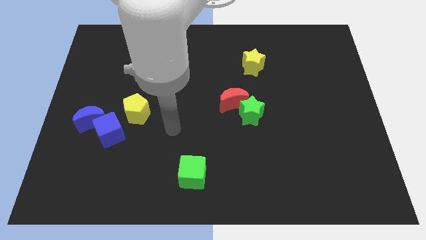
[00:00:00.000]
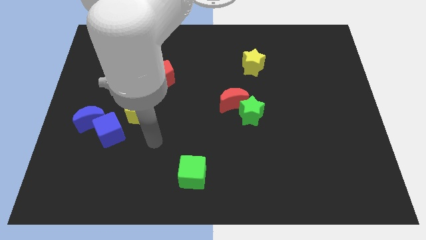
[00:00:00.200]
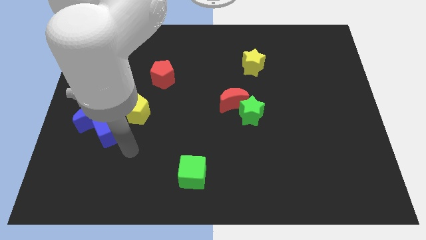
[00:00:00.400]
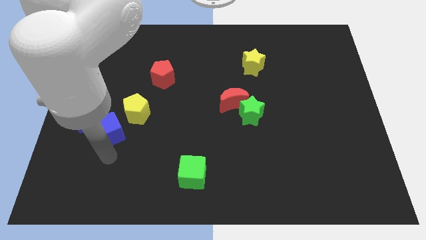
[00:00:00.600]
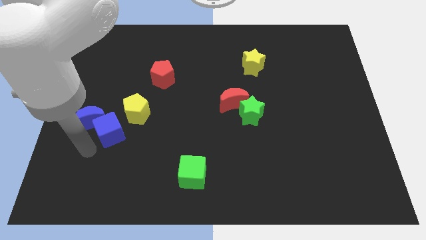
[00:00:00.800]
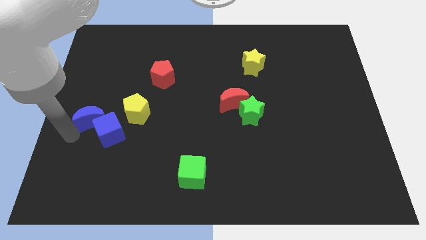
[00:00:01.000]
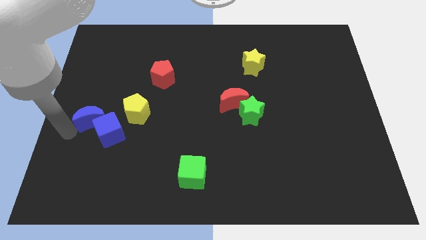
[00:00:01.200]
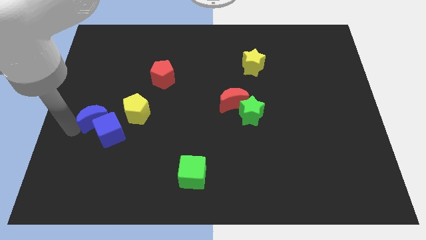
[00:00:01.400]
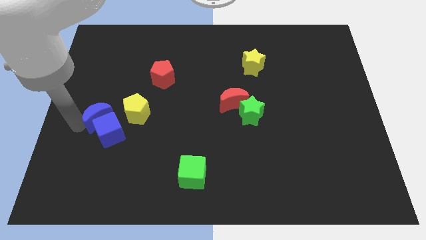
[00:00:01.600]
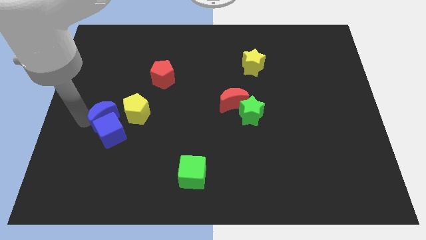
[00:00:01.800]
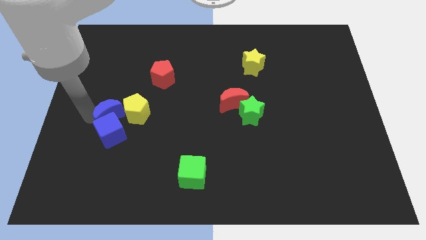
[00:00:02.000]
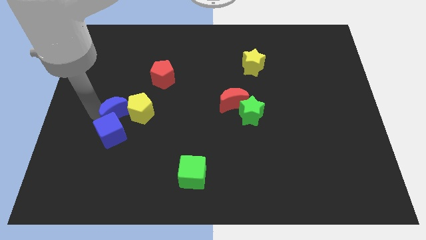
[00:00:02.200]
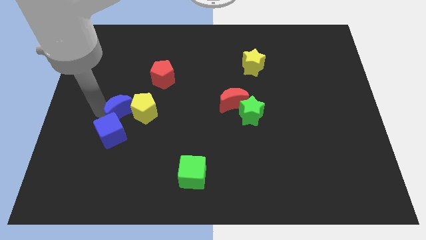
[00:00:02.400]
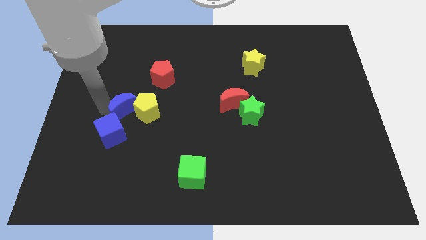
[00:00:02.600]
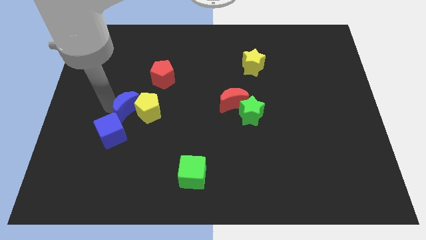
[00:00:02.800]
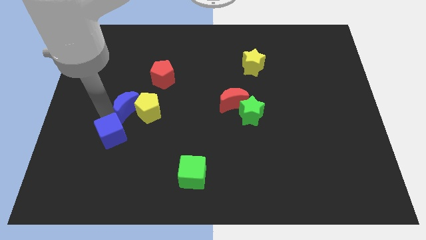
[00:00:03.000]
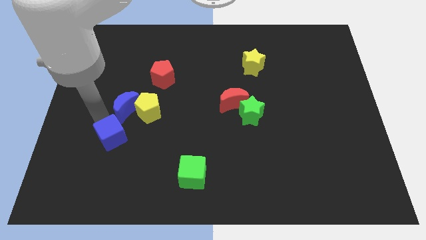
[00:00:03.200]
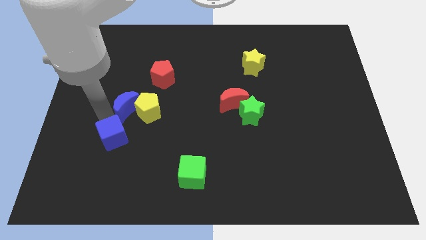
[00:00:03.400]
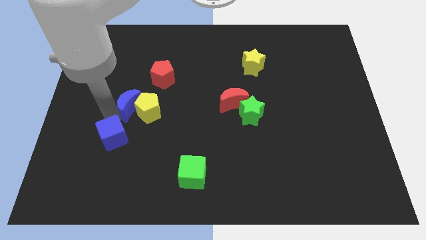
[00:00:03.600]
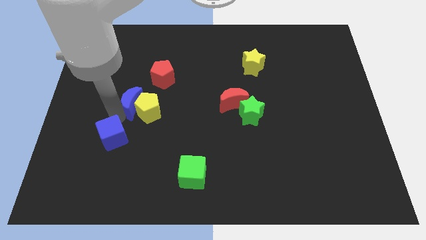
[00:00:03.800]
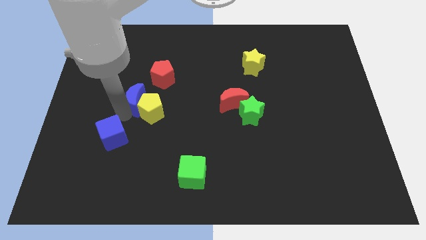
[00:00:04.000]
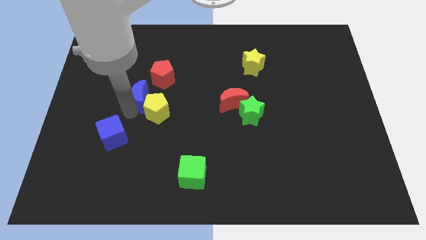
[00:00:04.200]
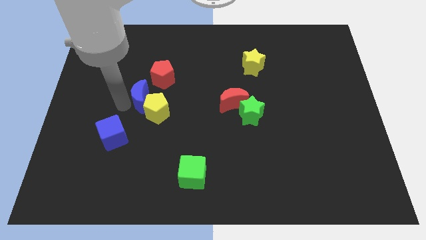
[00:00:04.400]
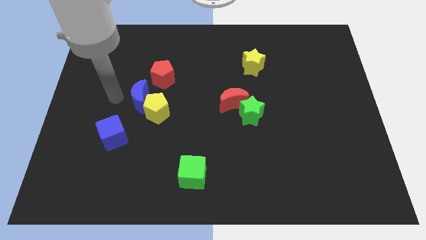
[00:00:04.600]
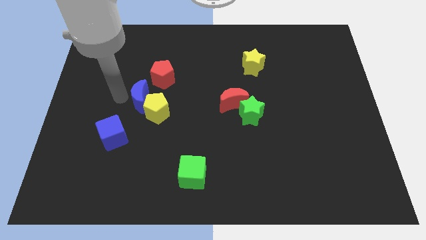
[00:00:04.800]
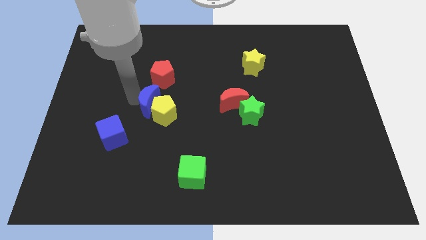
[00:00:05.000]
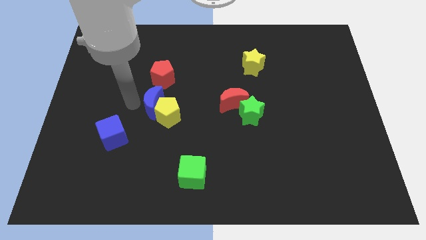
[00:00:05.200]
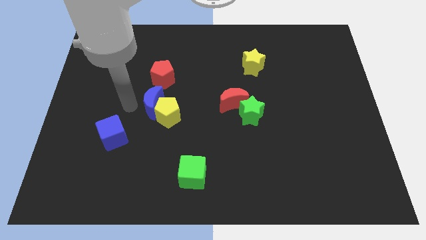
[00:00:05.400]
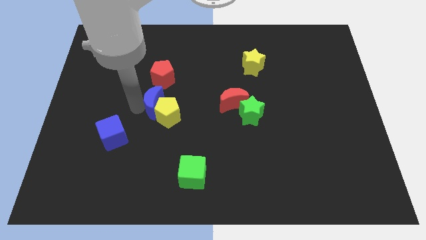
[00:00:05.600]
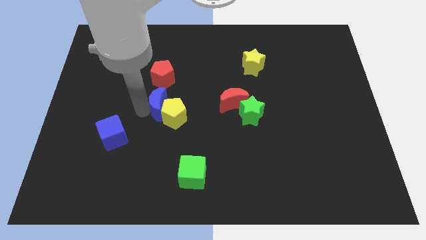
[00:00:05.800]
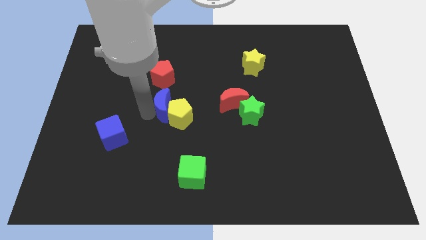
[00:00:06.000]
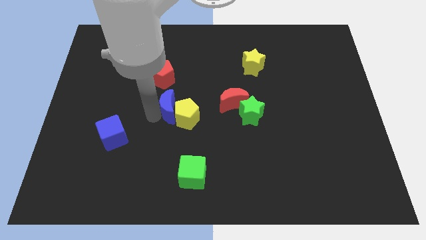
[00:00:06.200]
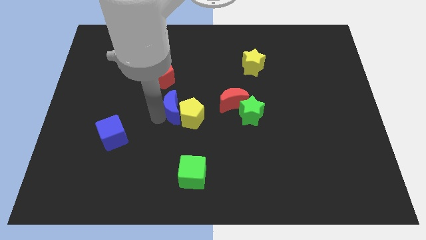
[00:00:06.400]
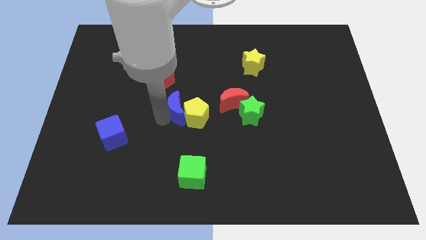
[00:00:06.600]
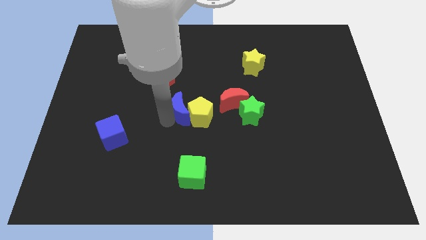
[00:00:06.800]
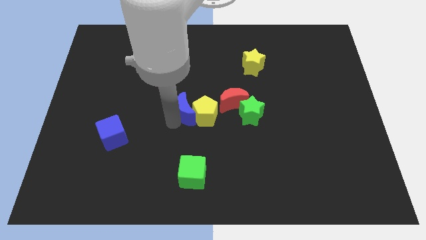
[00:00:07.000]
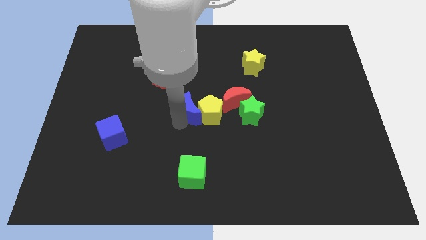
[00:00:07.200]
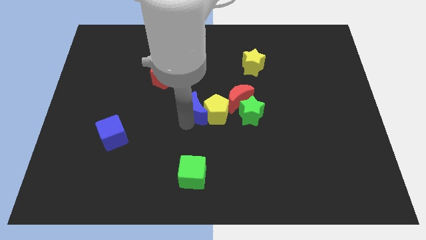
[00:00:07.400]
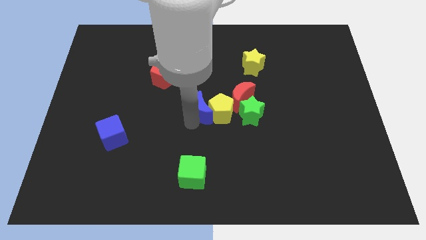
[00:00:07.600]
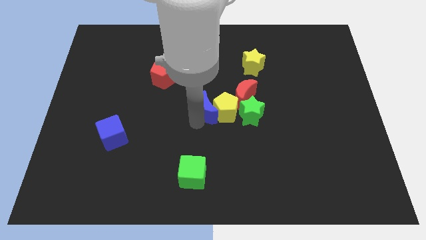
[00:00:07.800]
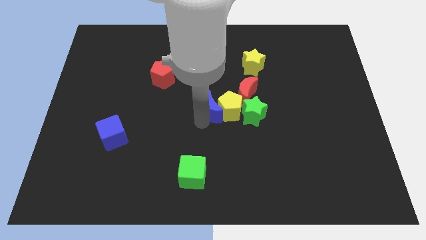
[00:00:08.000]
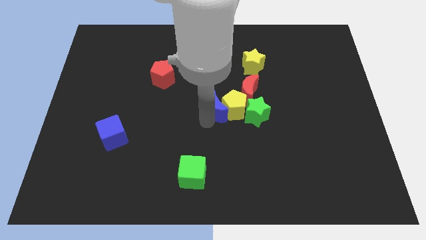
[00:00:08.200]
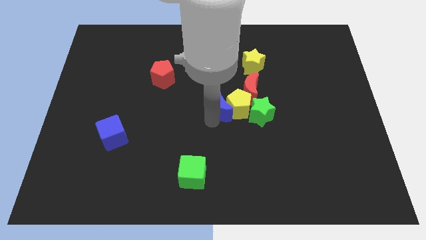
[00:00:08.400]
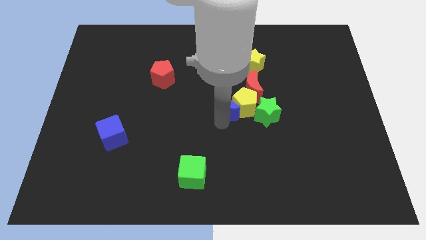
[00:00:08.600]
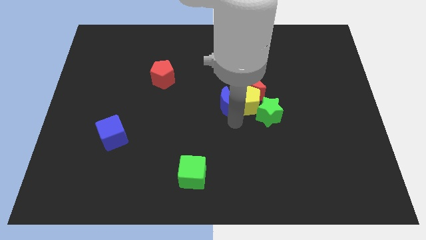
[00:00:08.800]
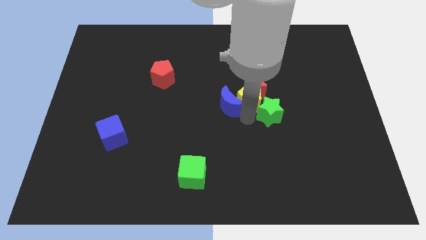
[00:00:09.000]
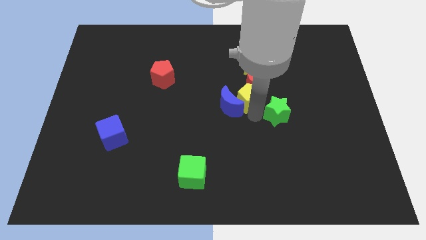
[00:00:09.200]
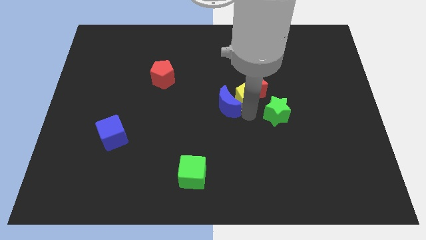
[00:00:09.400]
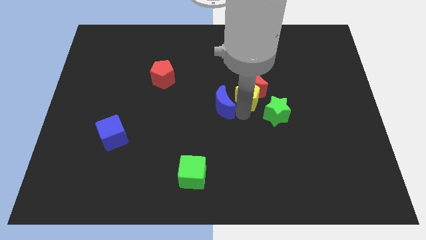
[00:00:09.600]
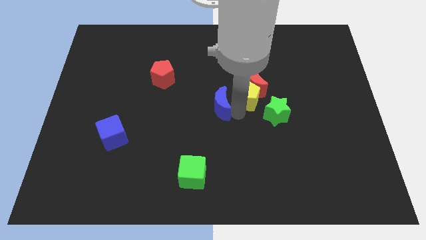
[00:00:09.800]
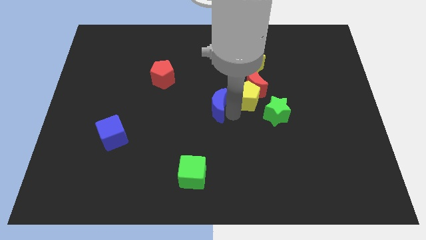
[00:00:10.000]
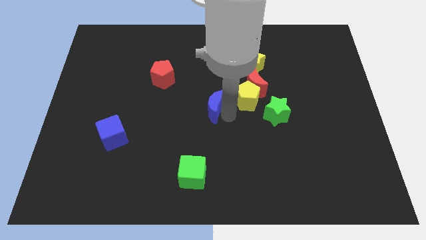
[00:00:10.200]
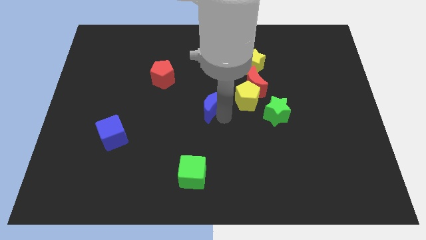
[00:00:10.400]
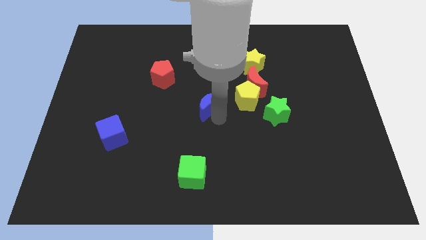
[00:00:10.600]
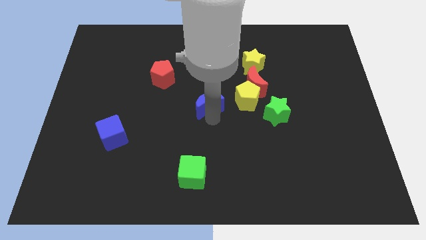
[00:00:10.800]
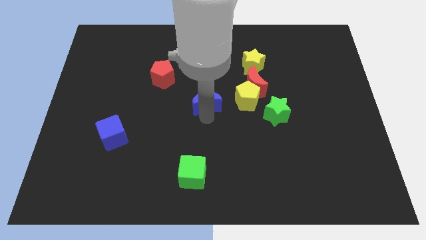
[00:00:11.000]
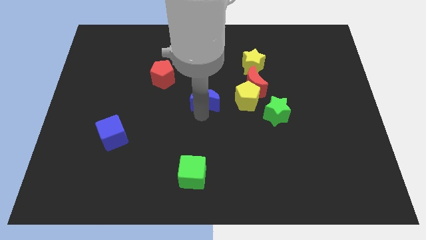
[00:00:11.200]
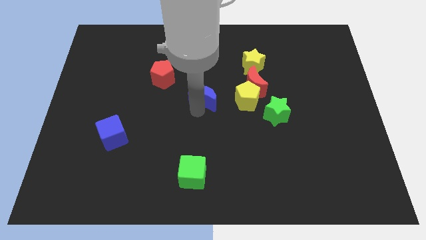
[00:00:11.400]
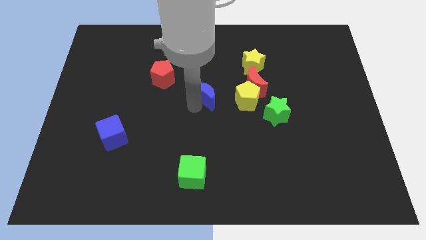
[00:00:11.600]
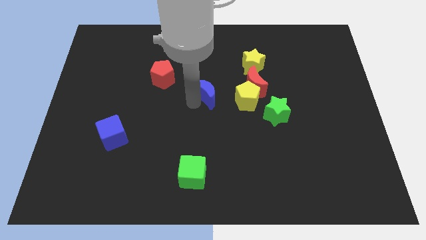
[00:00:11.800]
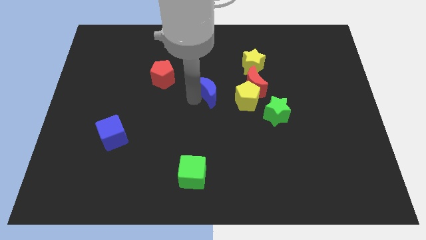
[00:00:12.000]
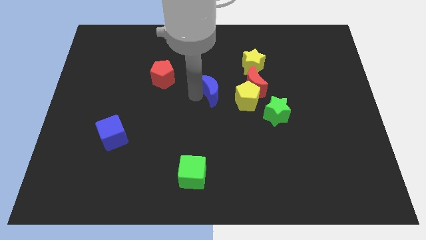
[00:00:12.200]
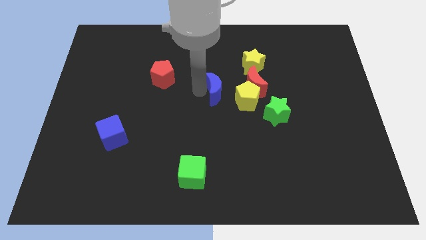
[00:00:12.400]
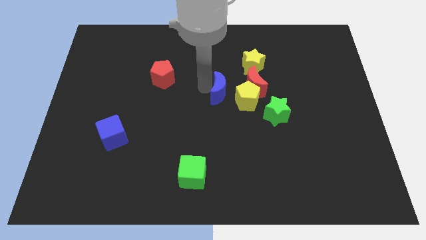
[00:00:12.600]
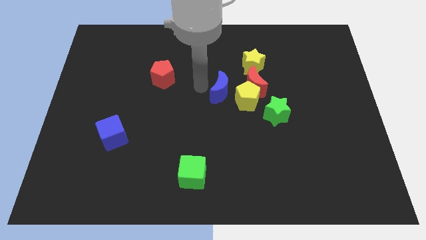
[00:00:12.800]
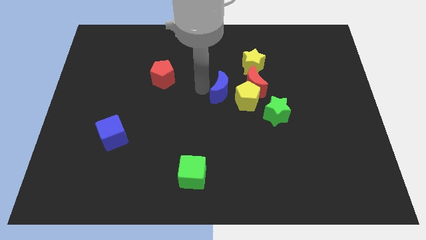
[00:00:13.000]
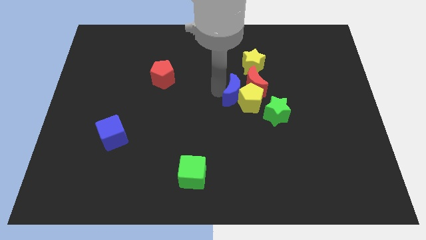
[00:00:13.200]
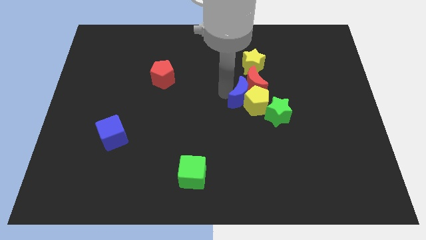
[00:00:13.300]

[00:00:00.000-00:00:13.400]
move the blue moon to the bottom of the yellow star

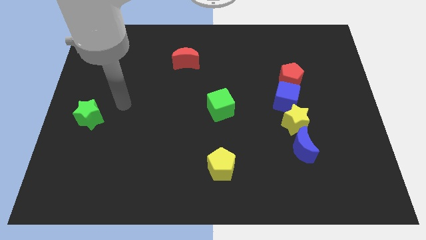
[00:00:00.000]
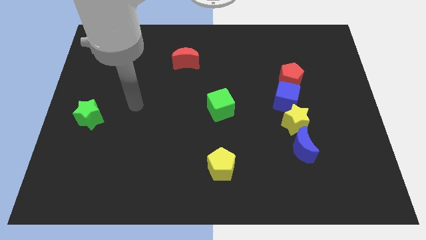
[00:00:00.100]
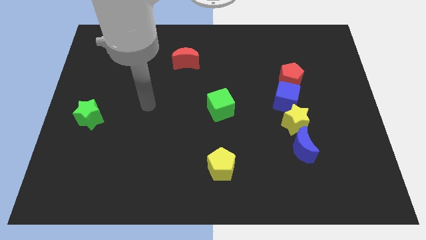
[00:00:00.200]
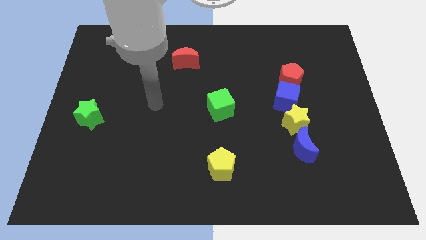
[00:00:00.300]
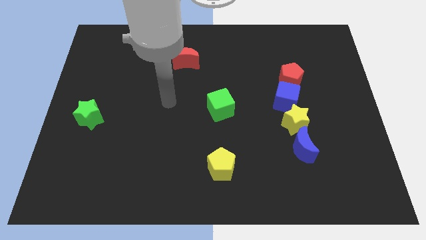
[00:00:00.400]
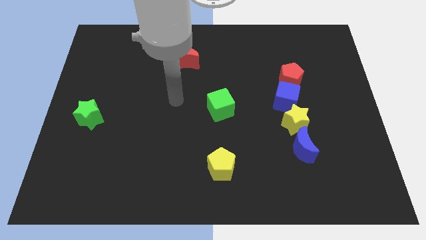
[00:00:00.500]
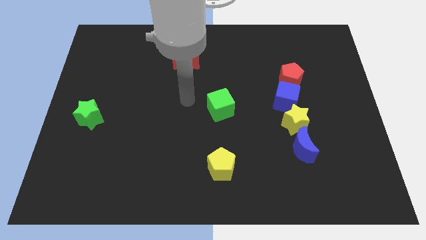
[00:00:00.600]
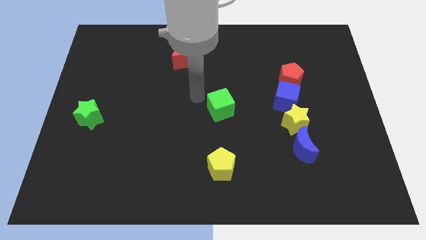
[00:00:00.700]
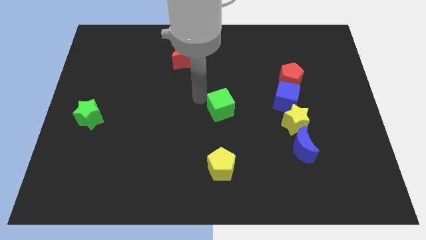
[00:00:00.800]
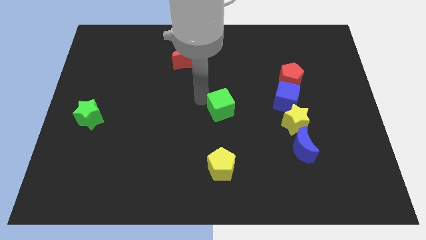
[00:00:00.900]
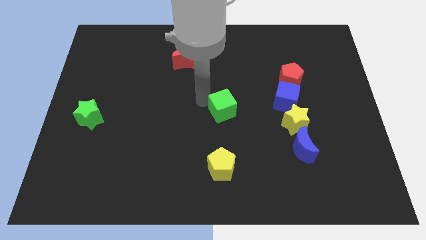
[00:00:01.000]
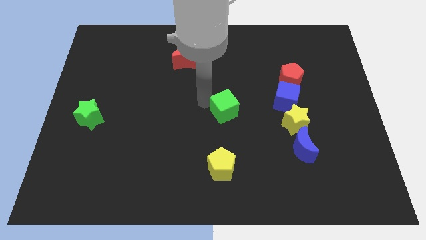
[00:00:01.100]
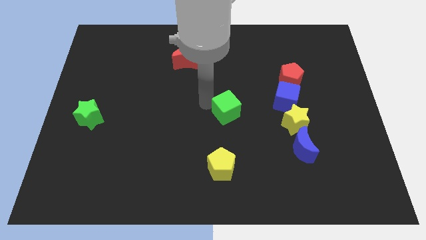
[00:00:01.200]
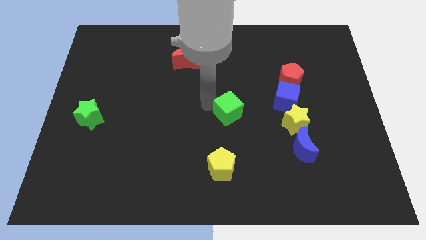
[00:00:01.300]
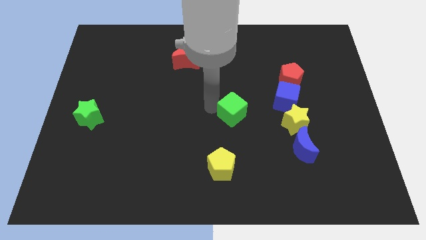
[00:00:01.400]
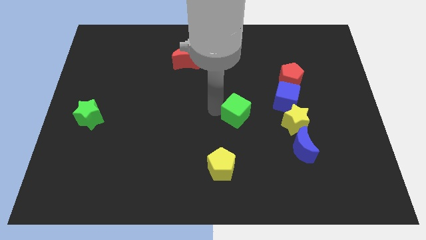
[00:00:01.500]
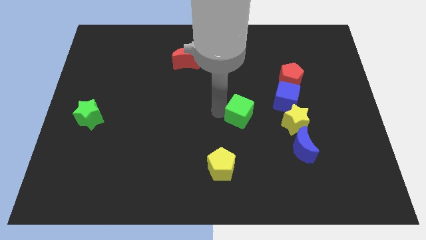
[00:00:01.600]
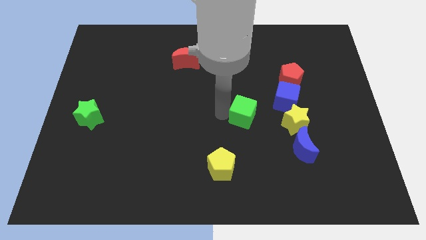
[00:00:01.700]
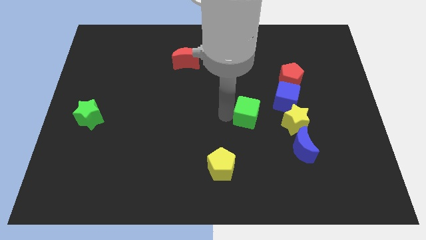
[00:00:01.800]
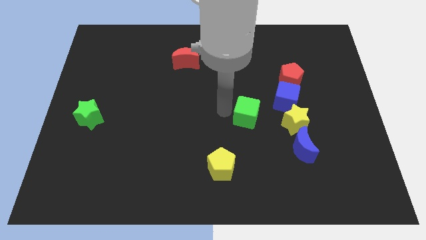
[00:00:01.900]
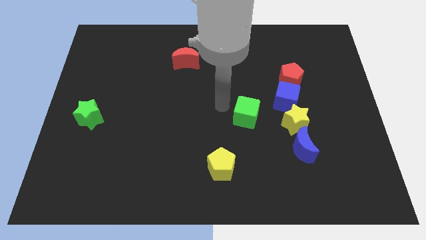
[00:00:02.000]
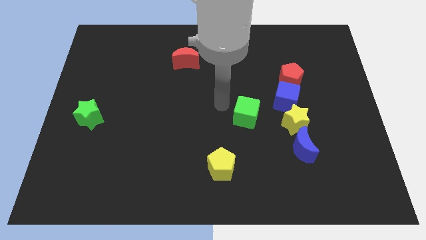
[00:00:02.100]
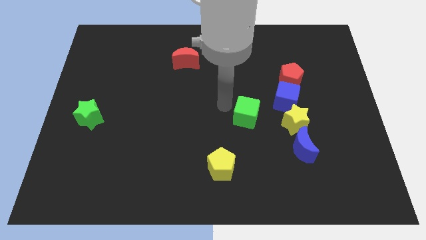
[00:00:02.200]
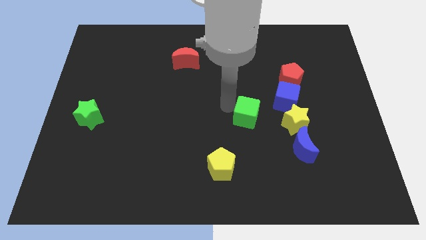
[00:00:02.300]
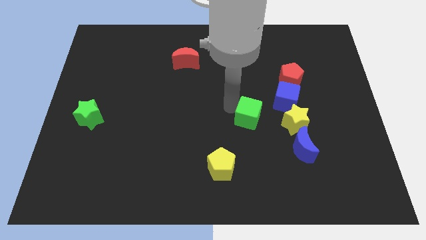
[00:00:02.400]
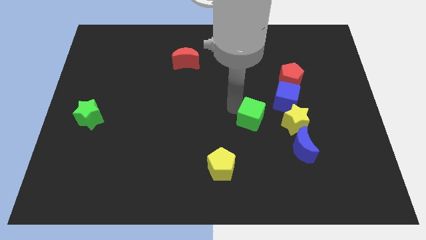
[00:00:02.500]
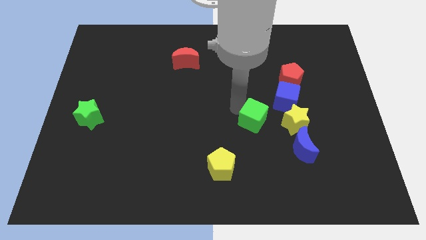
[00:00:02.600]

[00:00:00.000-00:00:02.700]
slide the green cube to the top left side of the blue moon
